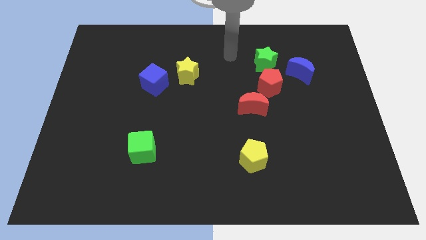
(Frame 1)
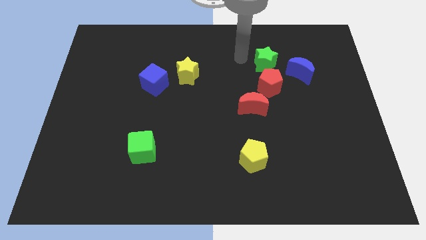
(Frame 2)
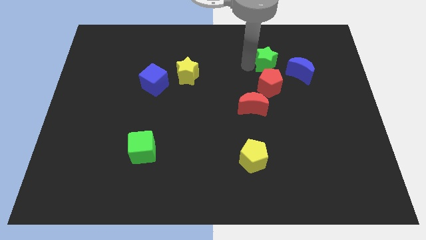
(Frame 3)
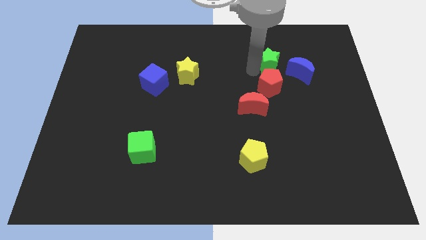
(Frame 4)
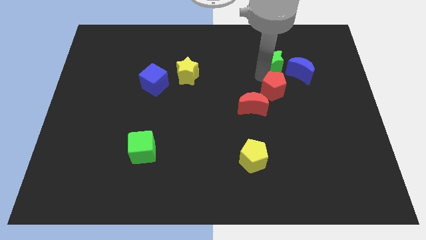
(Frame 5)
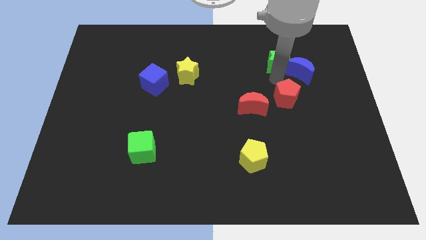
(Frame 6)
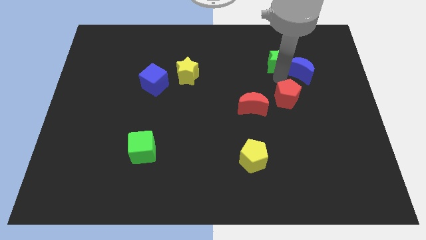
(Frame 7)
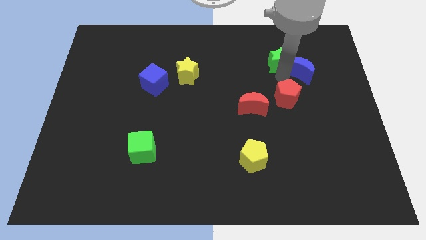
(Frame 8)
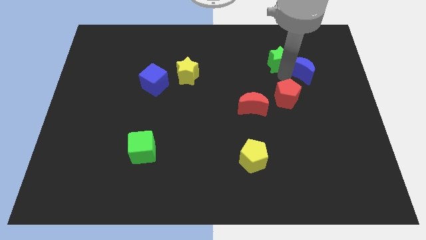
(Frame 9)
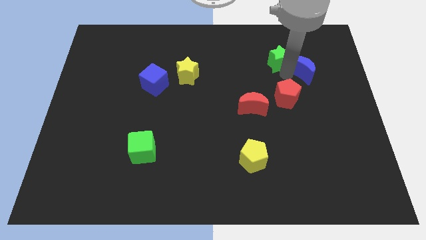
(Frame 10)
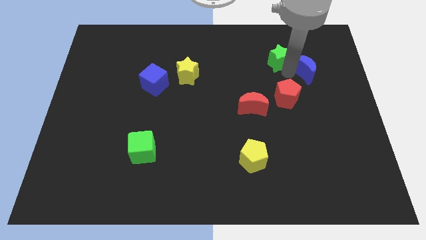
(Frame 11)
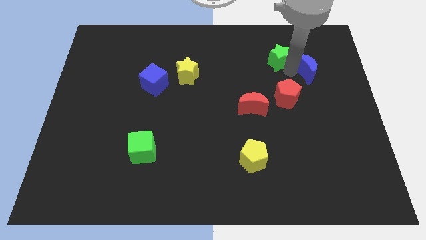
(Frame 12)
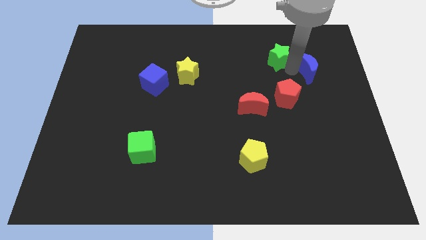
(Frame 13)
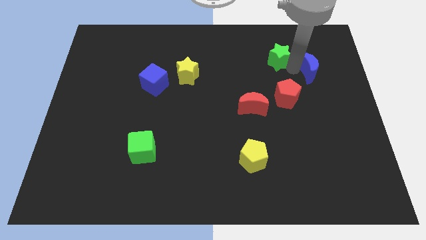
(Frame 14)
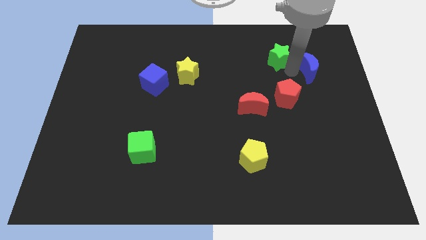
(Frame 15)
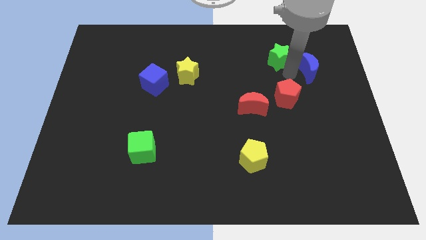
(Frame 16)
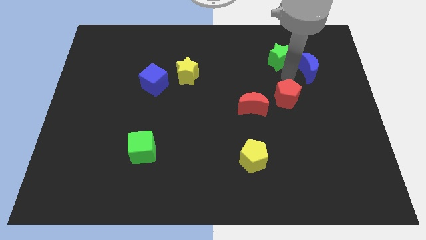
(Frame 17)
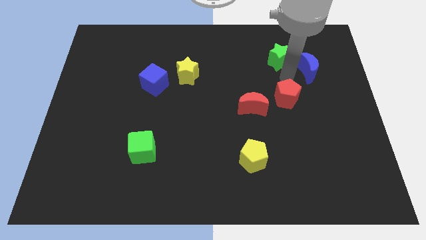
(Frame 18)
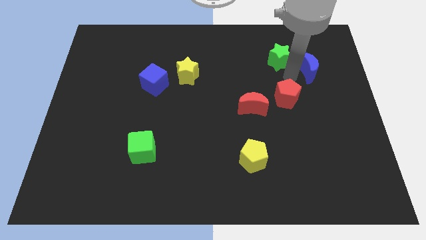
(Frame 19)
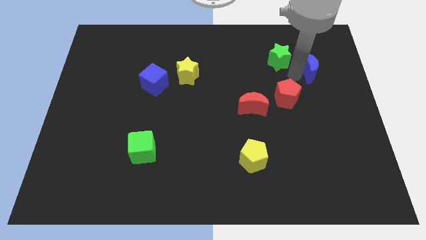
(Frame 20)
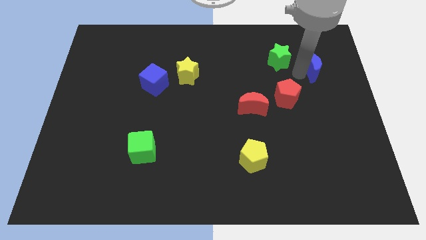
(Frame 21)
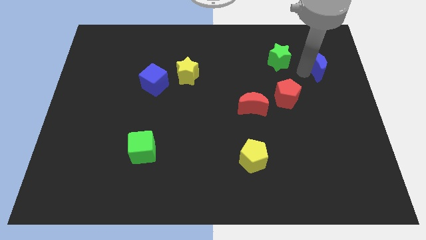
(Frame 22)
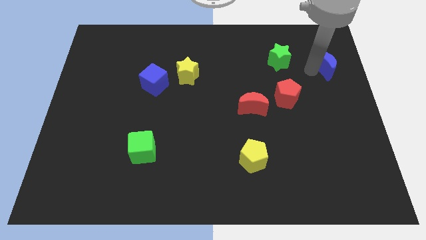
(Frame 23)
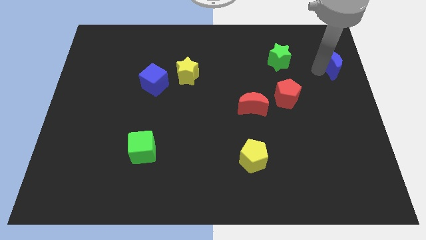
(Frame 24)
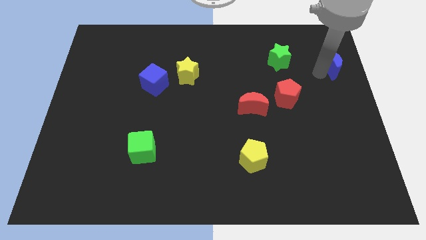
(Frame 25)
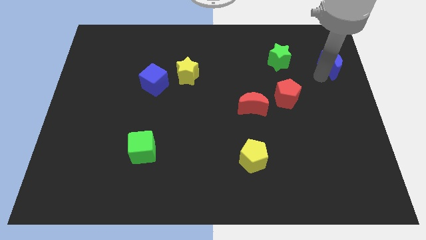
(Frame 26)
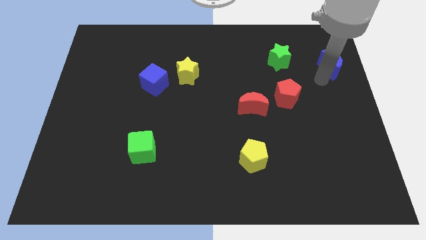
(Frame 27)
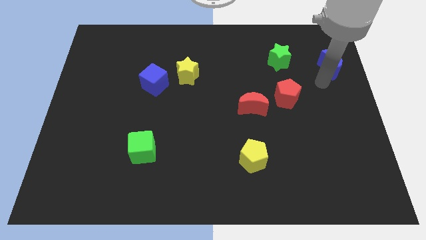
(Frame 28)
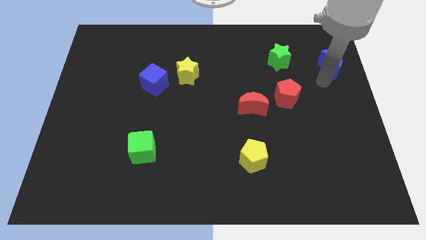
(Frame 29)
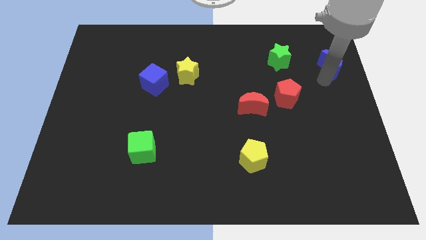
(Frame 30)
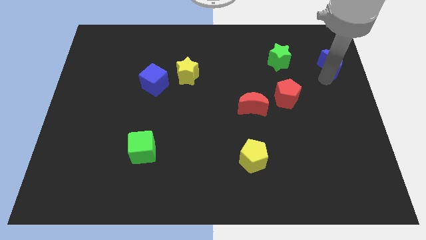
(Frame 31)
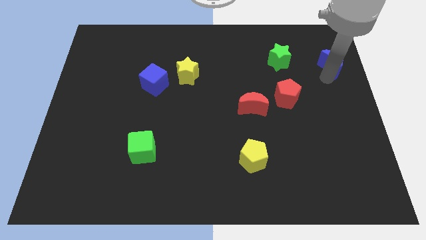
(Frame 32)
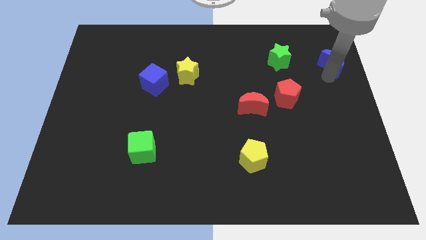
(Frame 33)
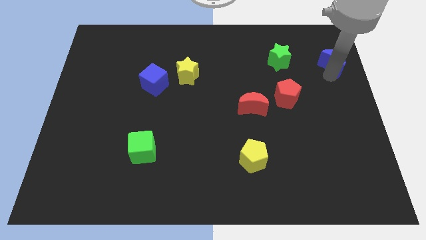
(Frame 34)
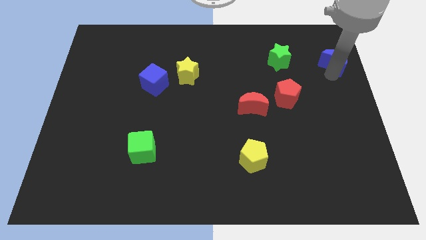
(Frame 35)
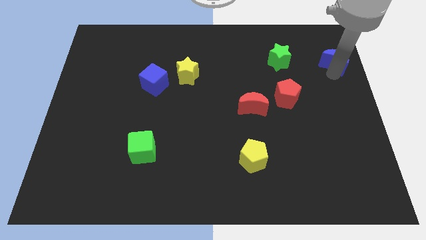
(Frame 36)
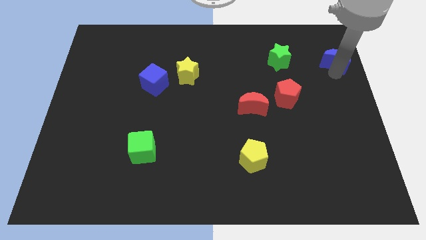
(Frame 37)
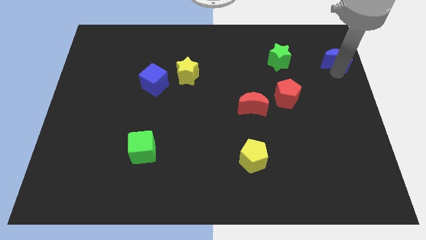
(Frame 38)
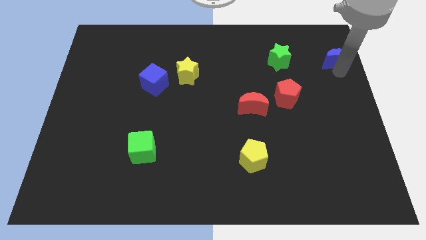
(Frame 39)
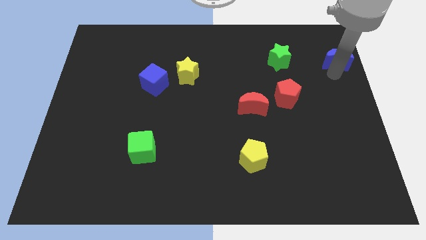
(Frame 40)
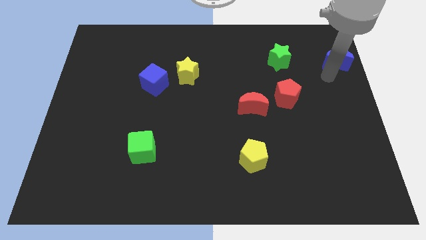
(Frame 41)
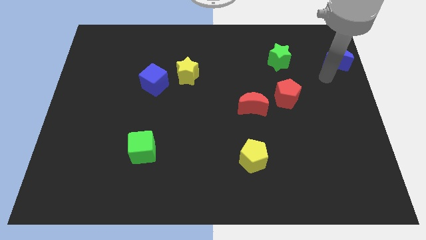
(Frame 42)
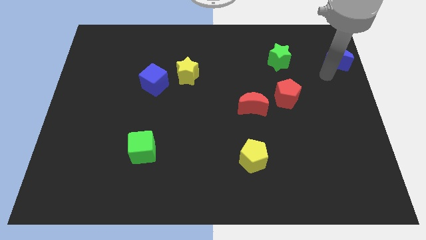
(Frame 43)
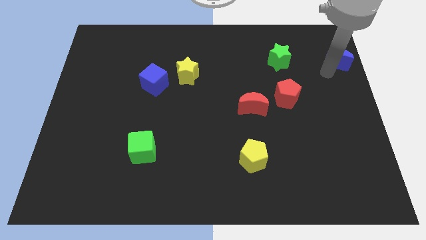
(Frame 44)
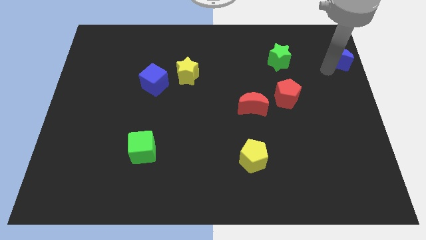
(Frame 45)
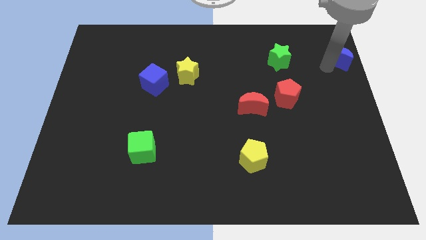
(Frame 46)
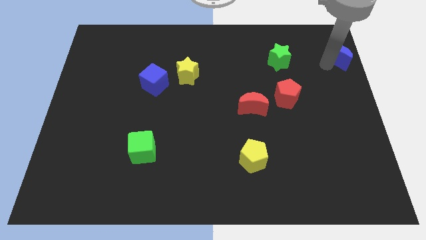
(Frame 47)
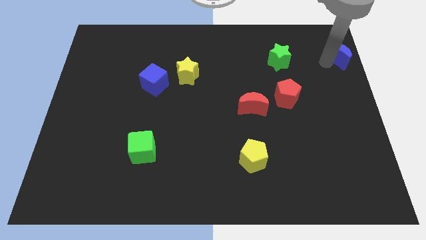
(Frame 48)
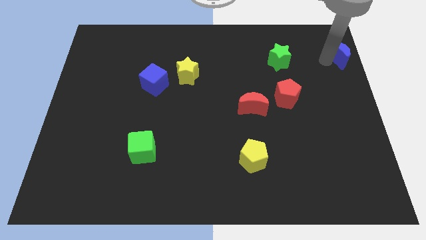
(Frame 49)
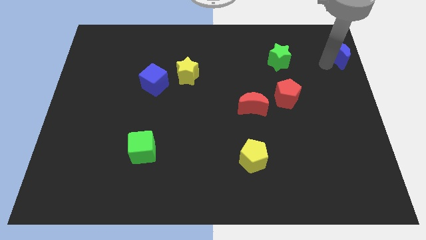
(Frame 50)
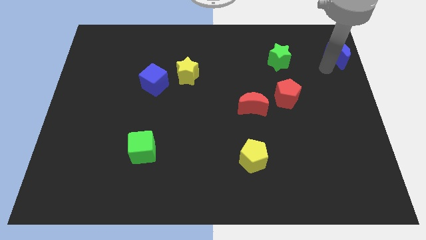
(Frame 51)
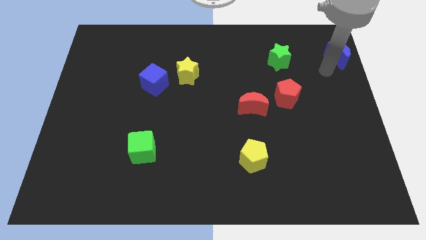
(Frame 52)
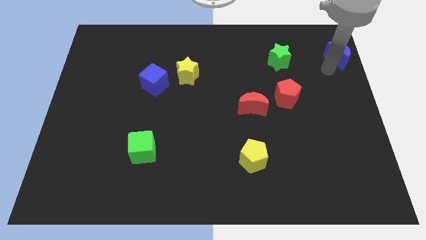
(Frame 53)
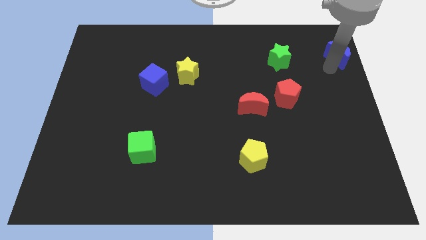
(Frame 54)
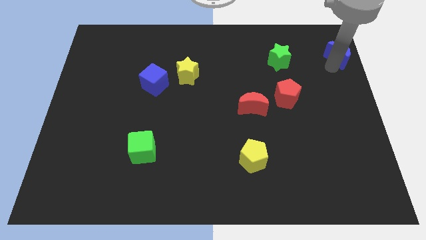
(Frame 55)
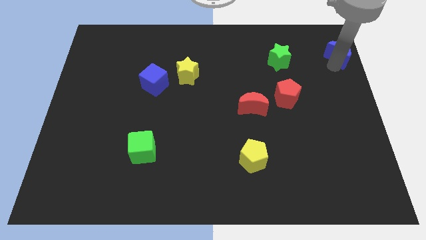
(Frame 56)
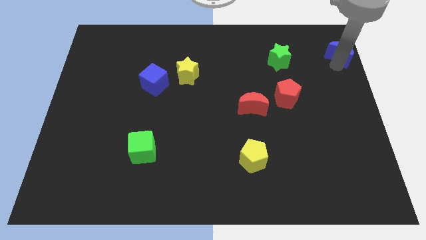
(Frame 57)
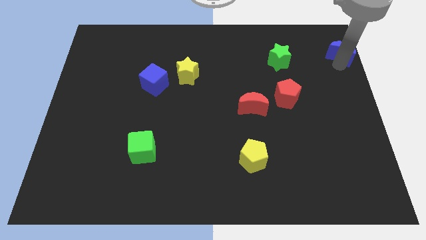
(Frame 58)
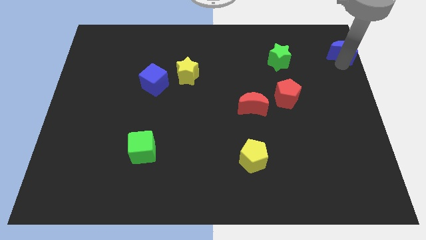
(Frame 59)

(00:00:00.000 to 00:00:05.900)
put the blue moon to the upper right corner
